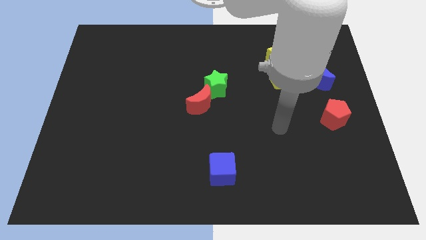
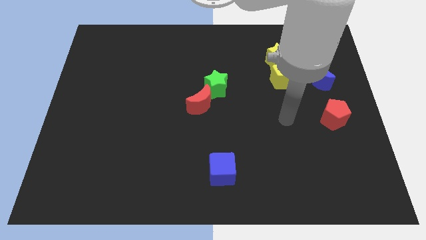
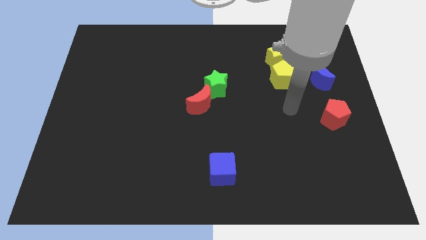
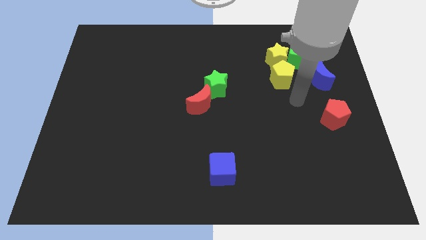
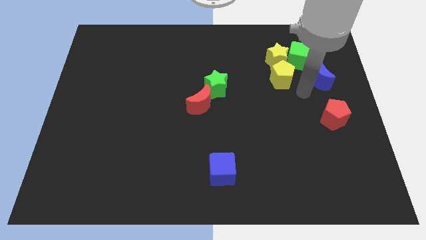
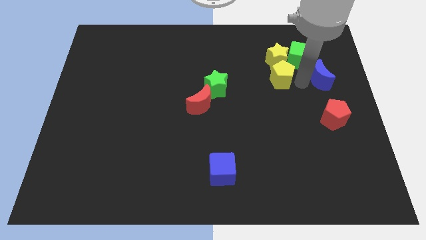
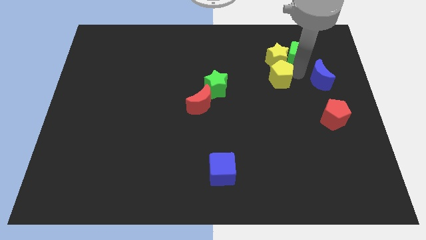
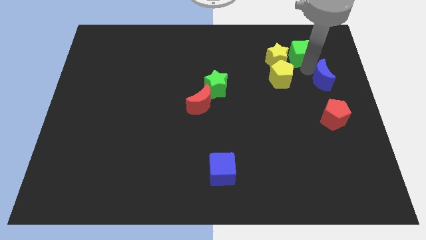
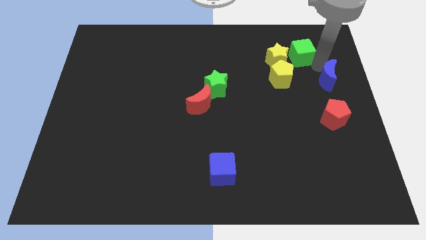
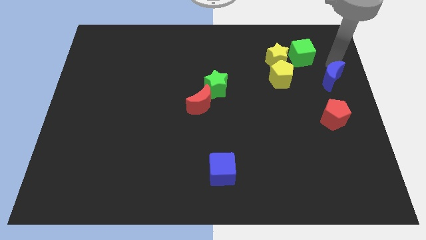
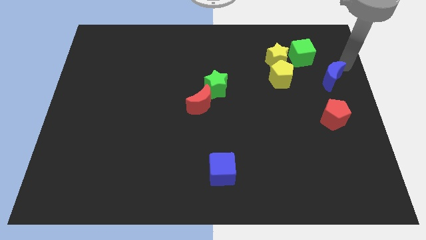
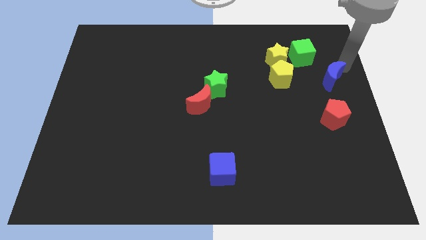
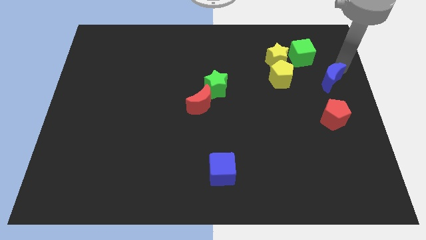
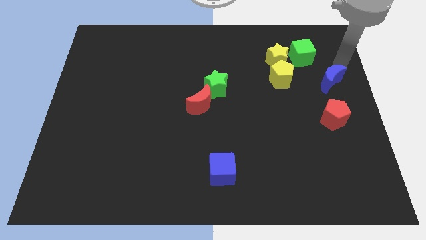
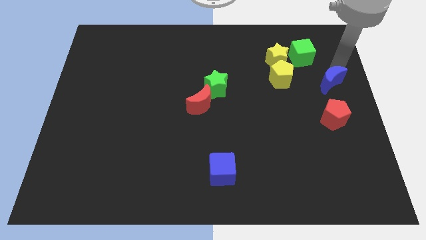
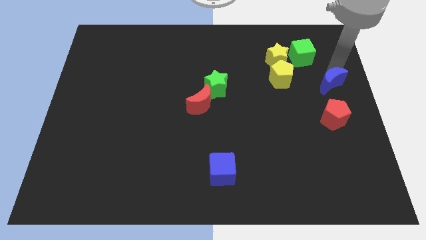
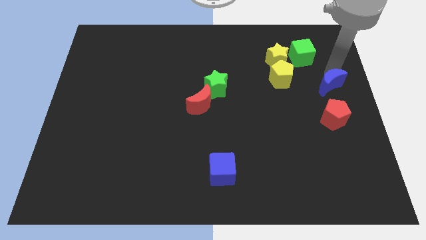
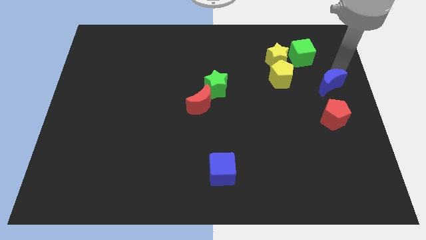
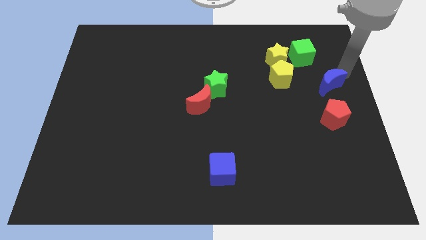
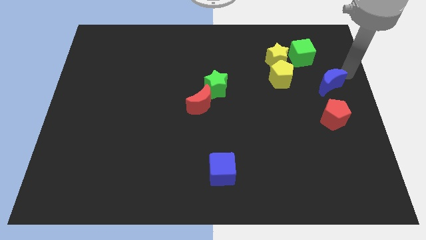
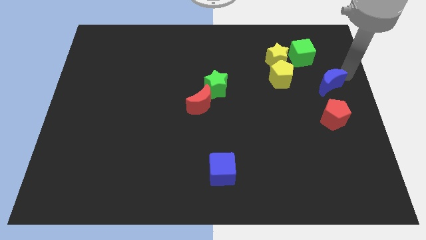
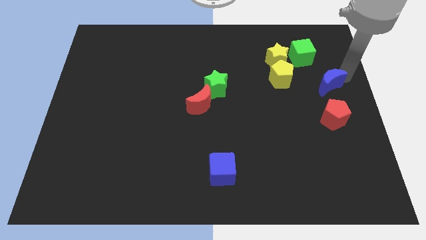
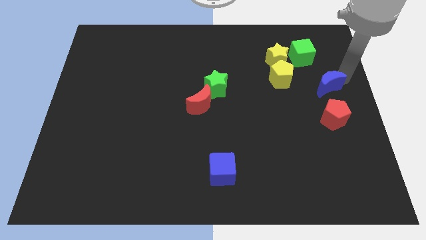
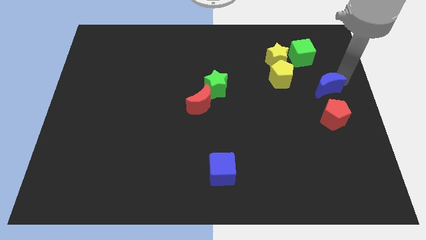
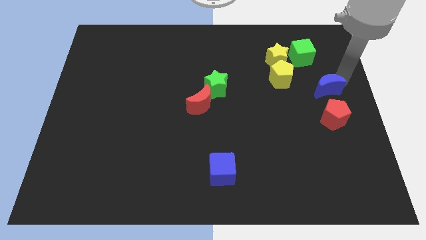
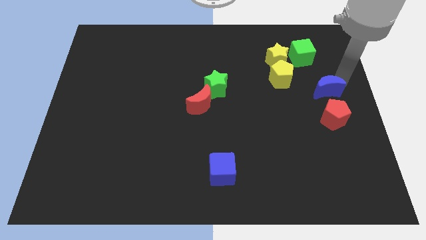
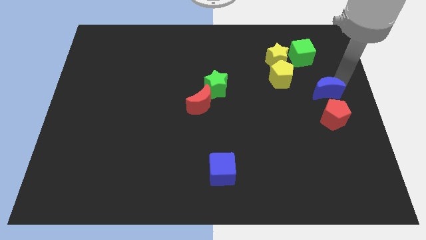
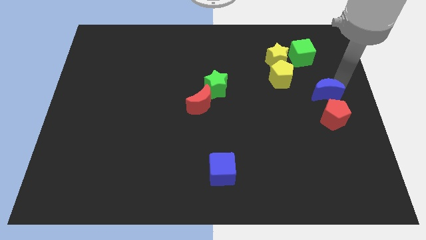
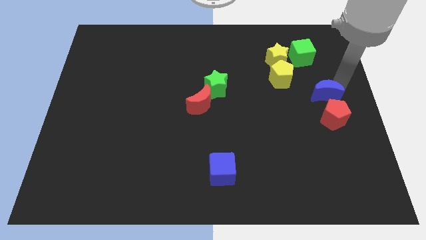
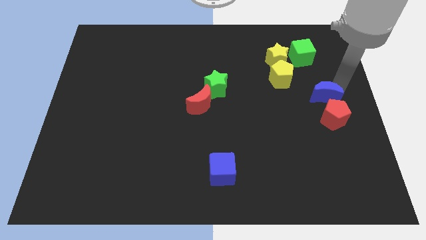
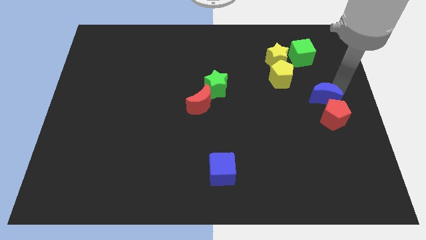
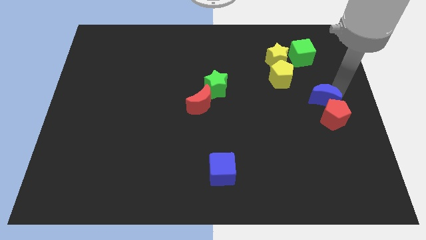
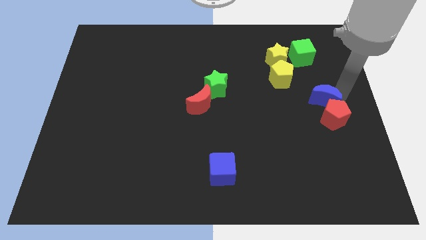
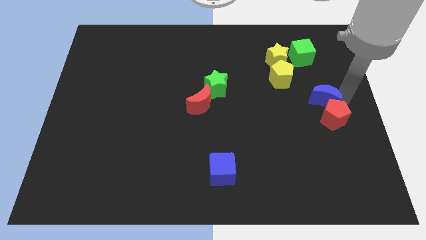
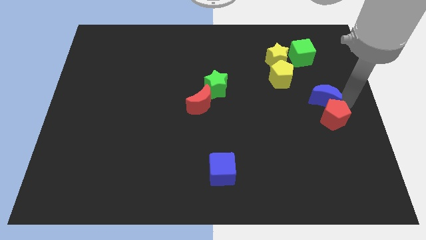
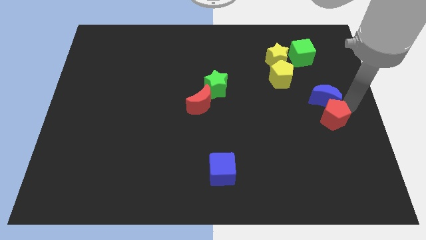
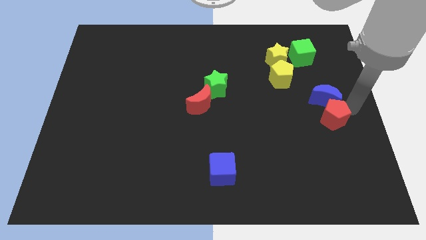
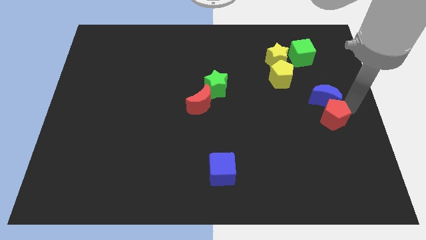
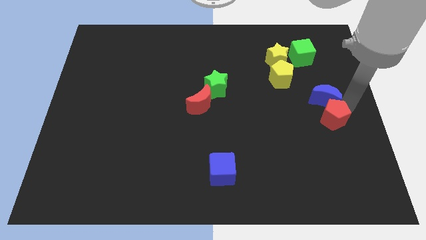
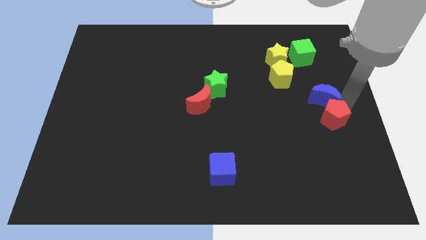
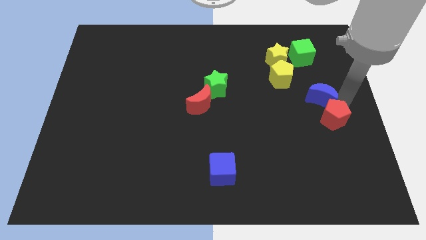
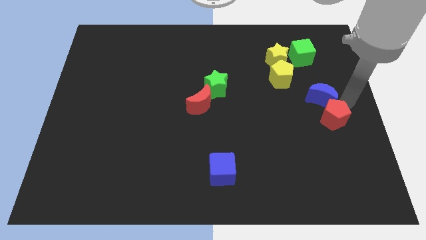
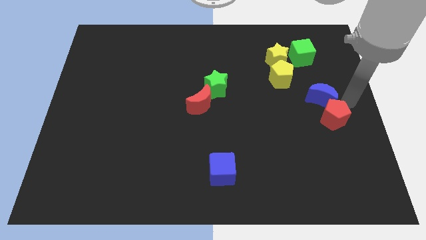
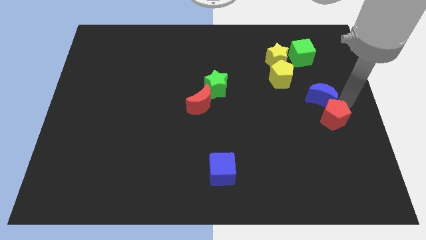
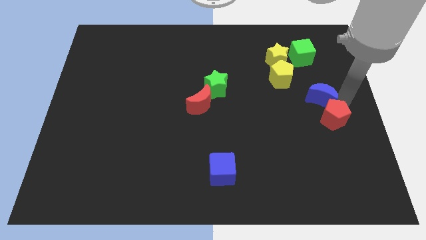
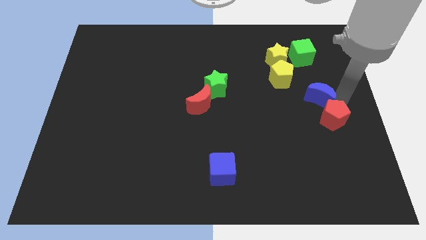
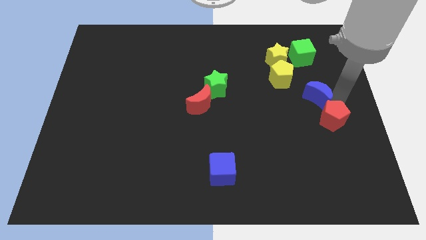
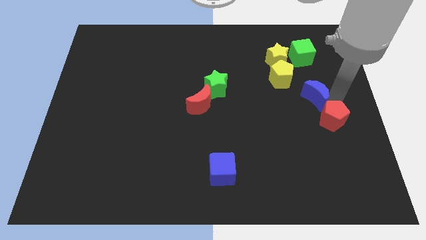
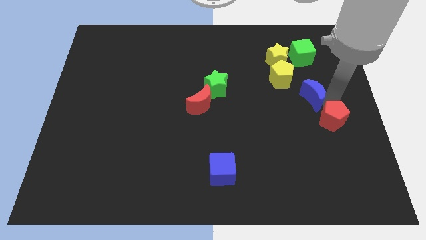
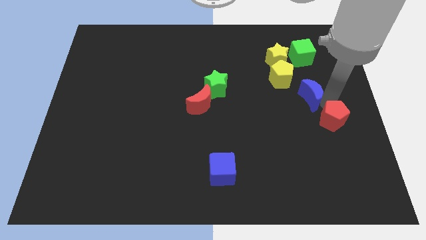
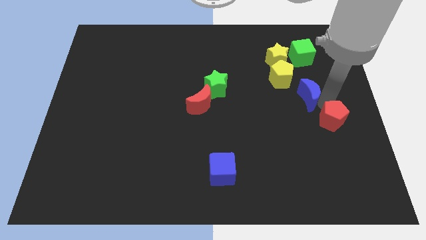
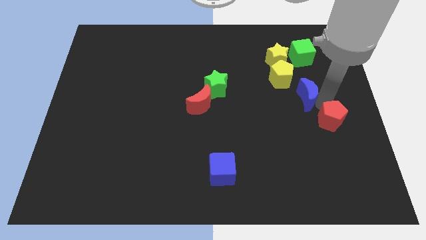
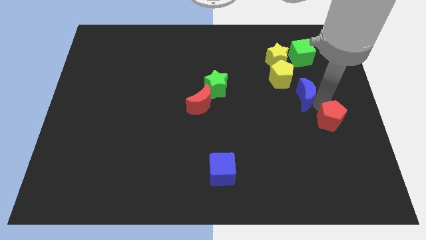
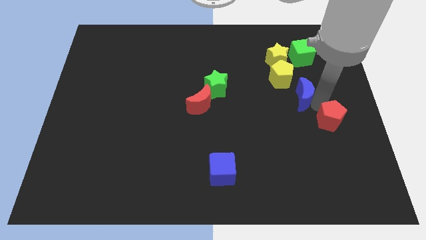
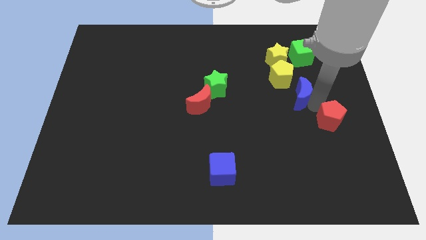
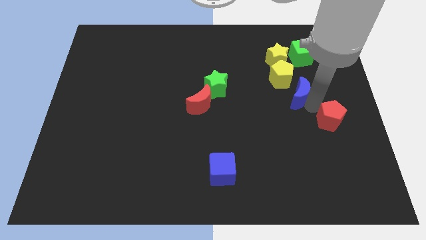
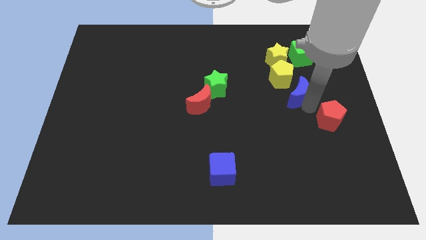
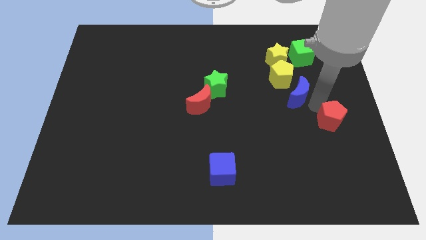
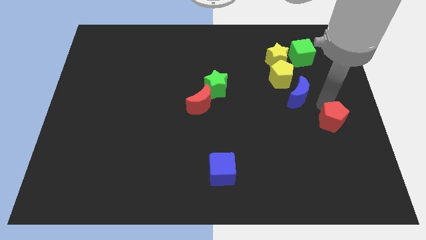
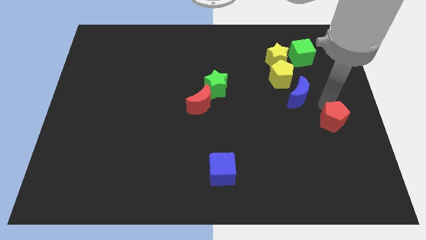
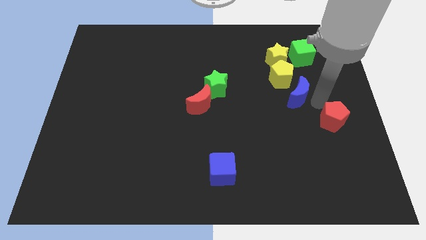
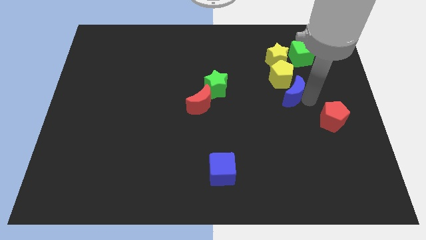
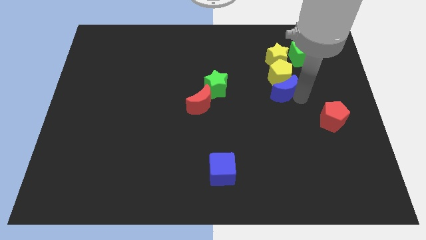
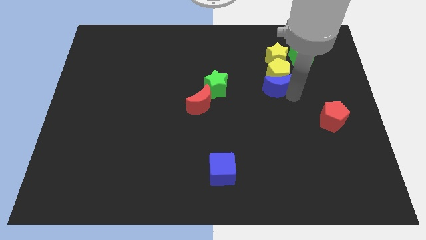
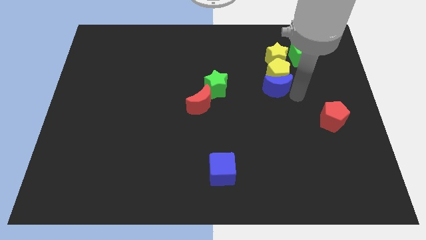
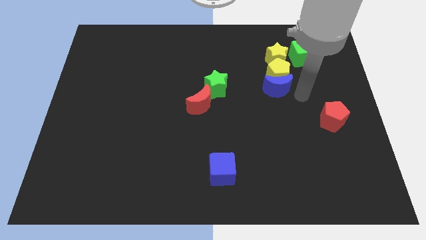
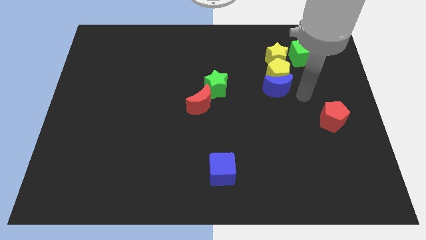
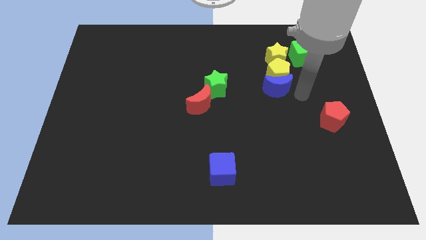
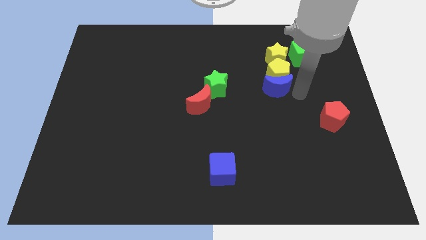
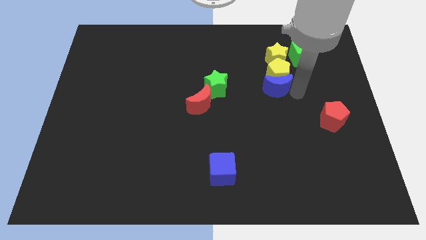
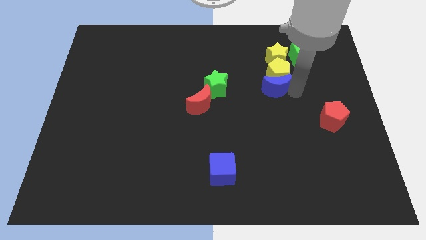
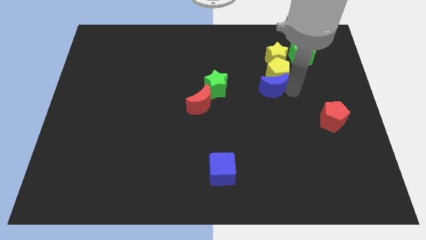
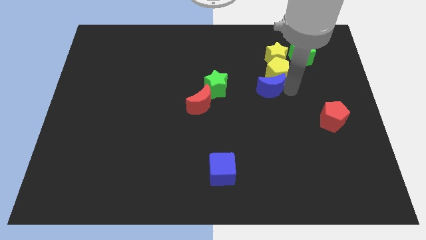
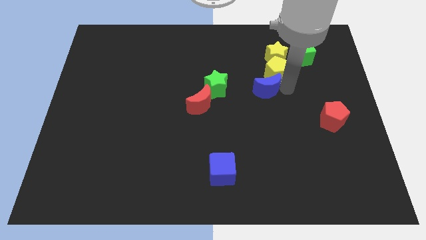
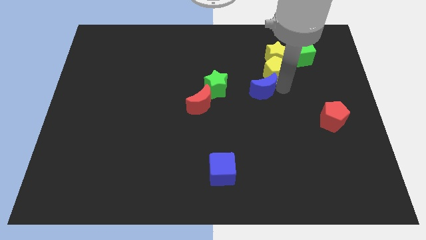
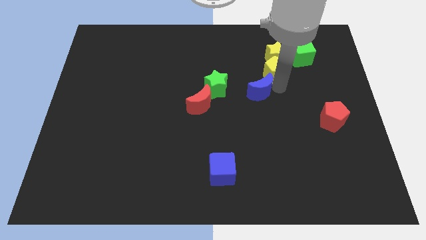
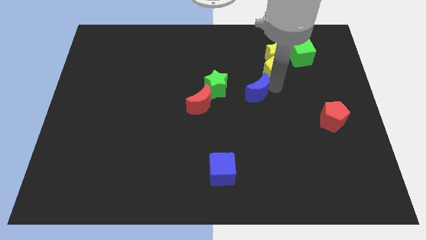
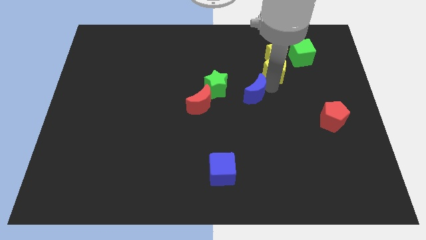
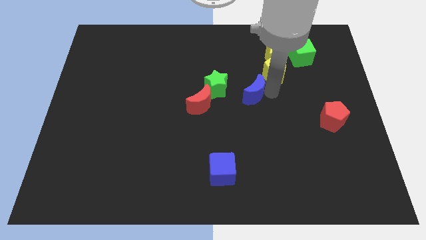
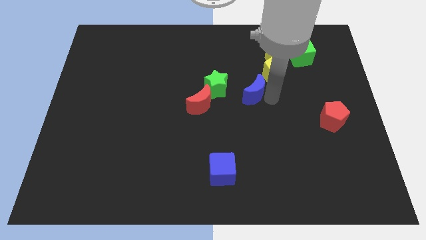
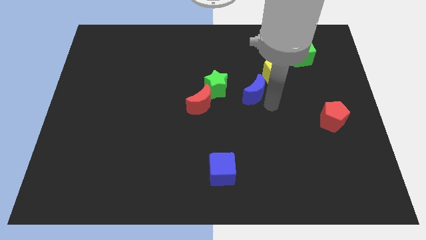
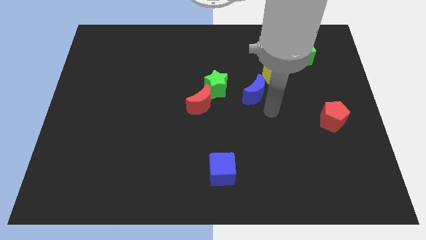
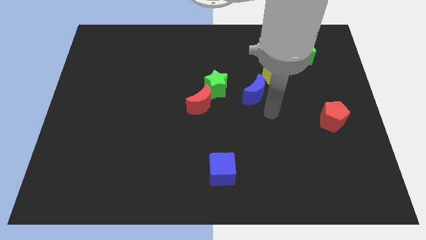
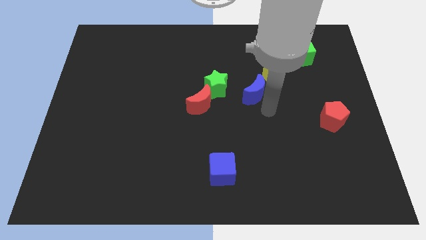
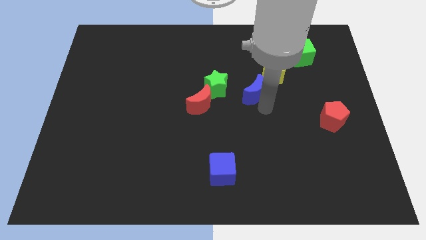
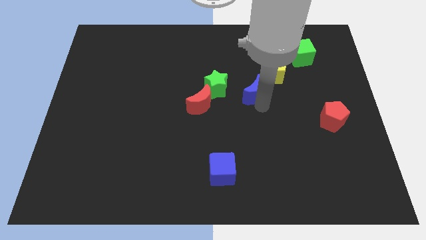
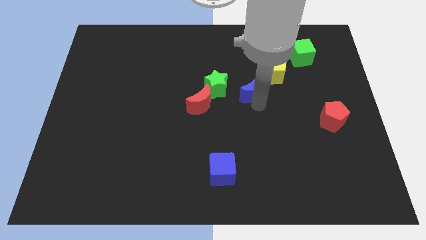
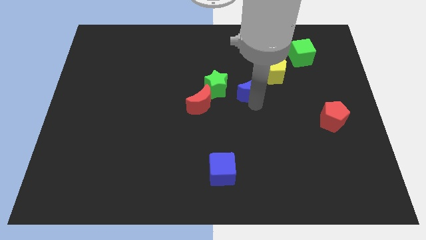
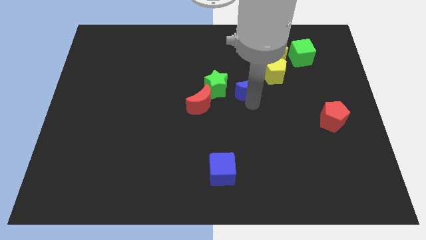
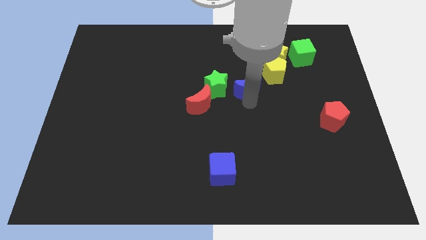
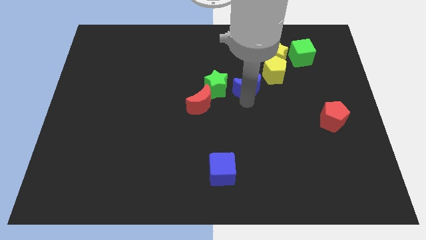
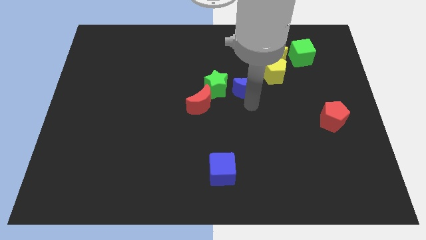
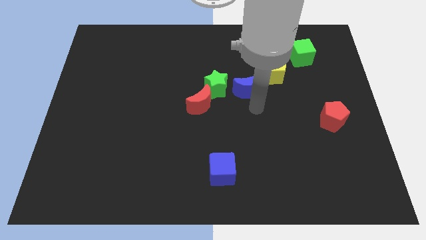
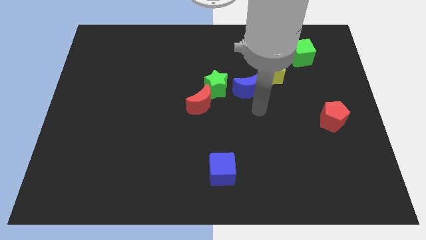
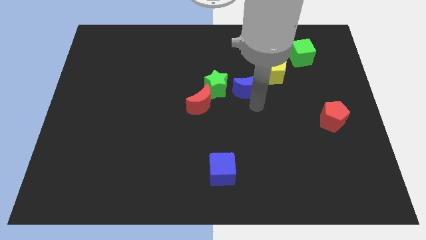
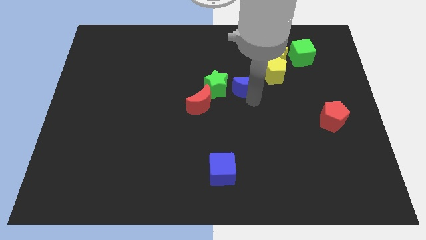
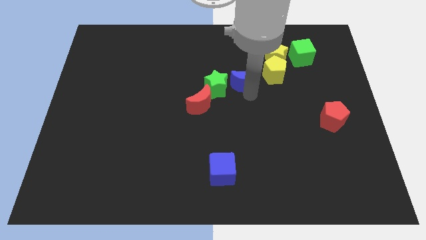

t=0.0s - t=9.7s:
slide the blue moon diagonally up and to the right of the green star
